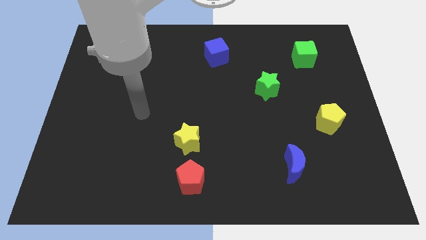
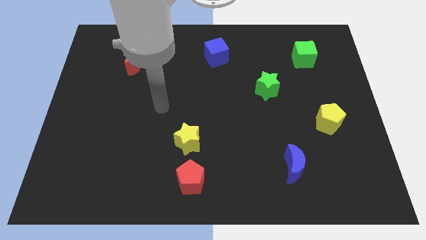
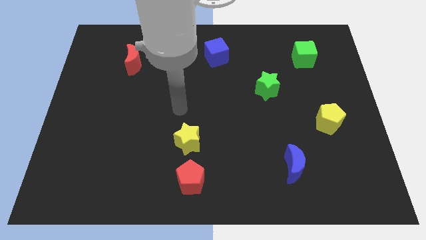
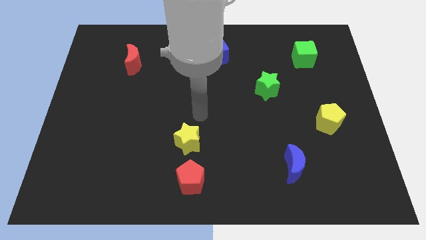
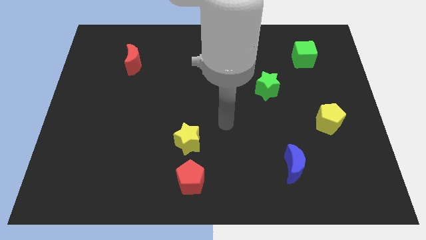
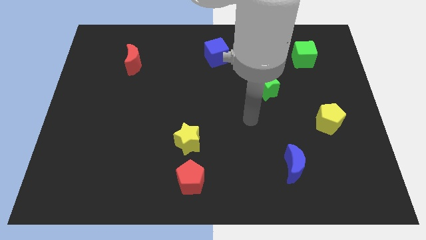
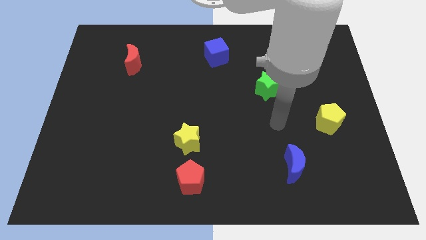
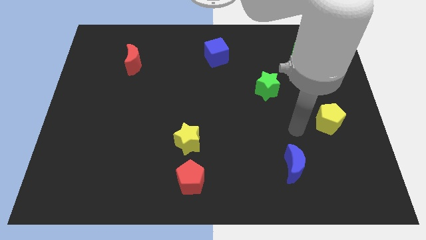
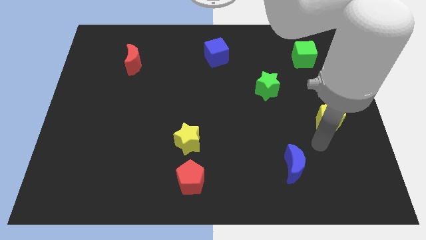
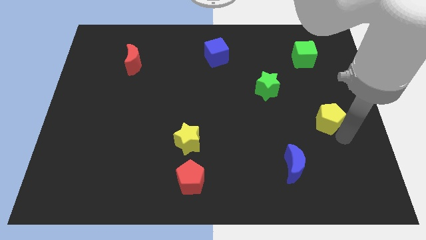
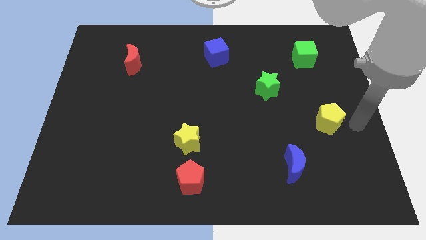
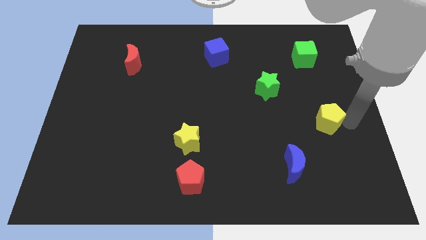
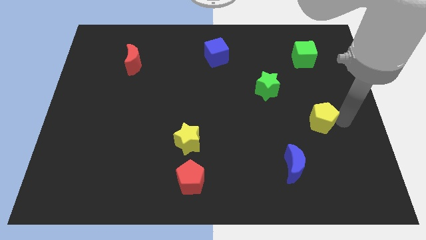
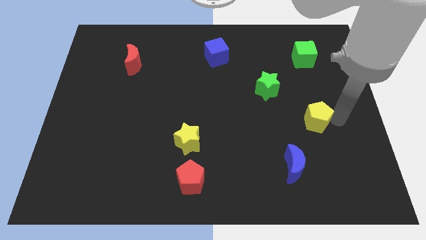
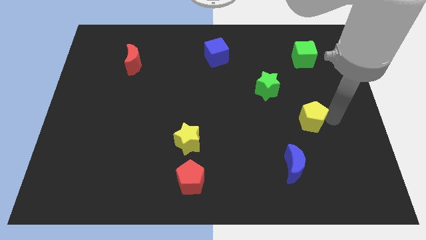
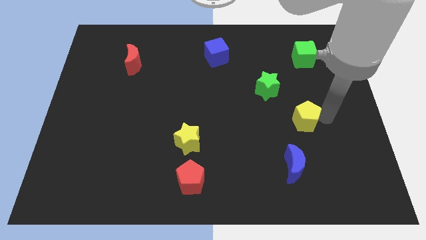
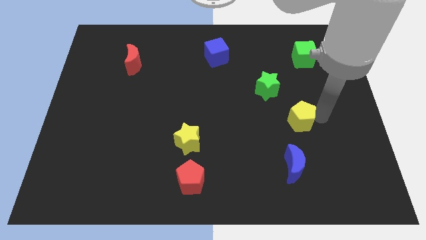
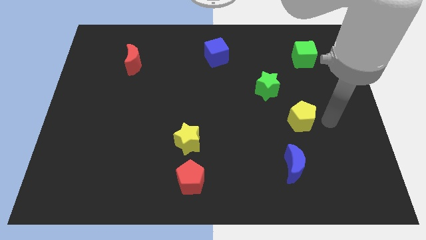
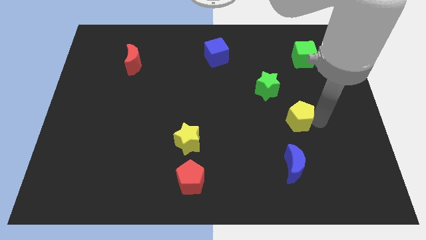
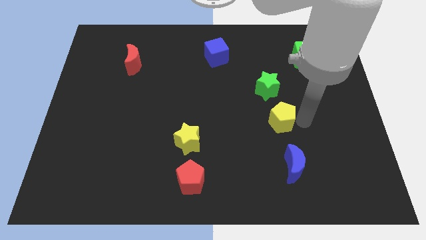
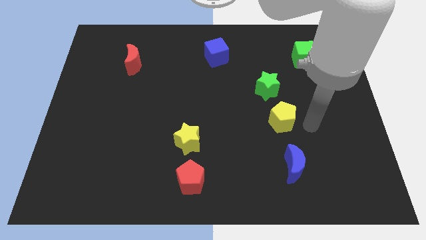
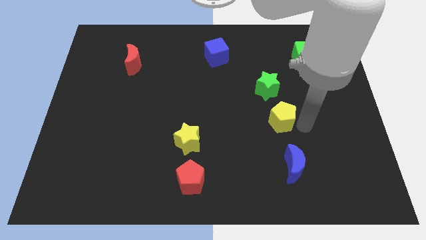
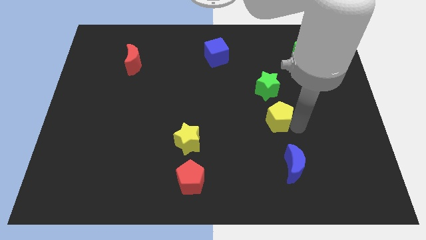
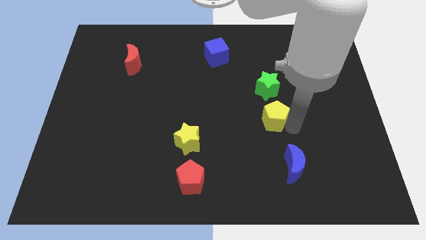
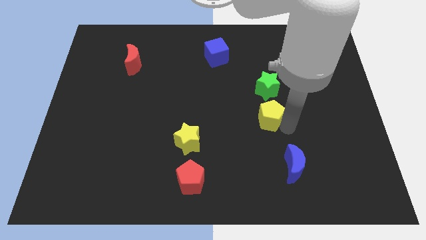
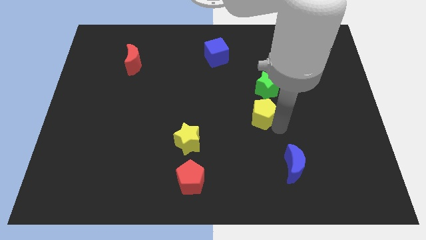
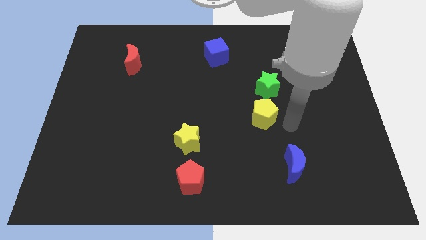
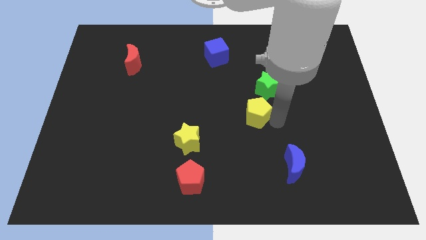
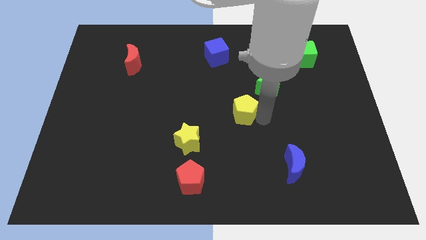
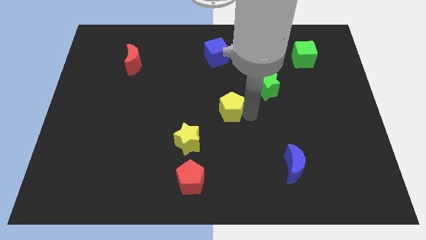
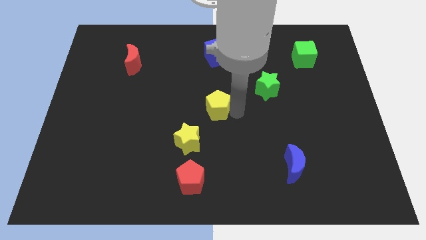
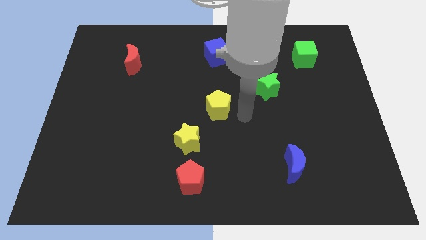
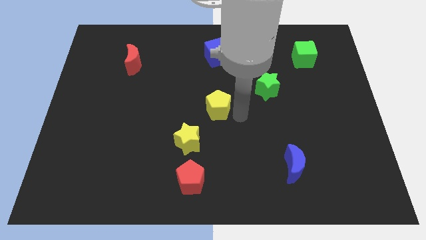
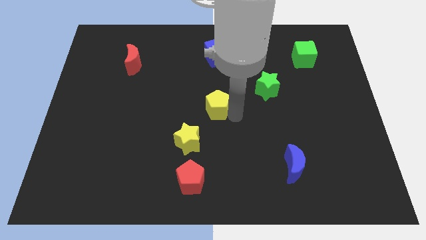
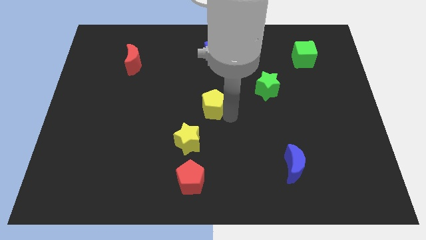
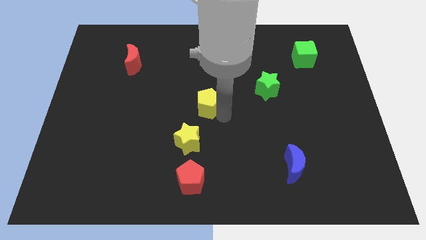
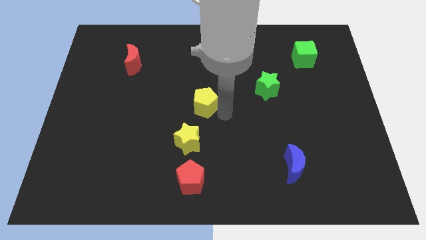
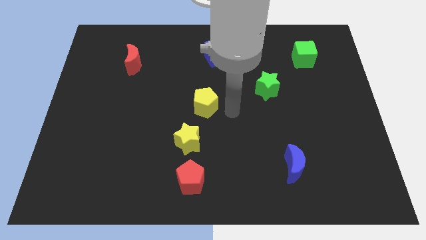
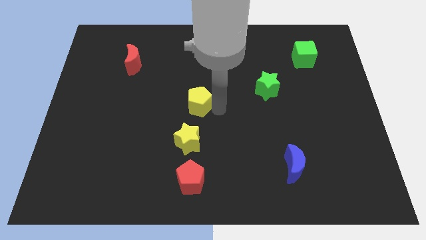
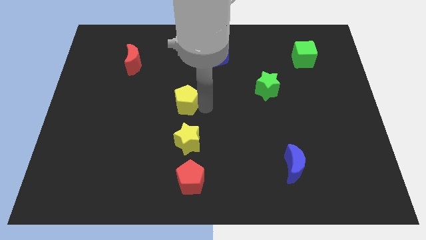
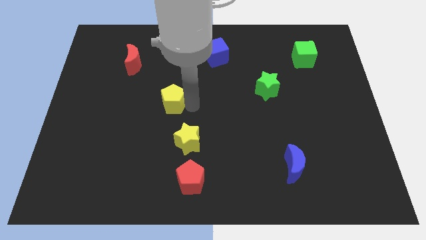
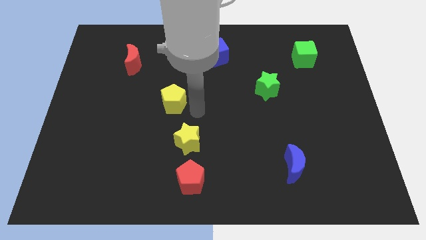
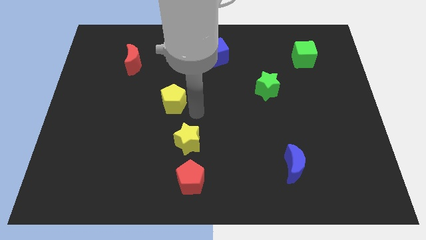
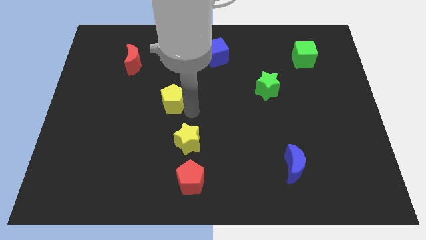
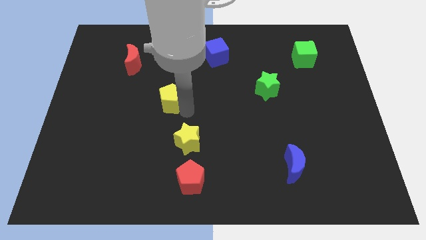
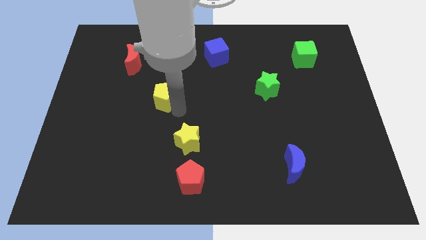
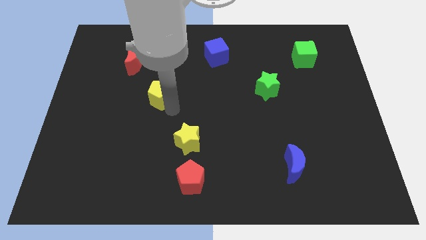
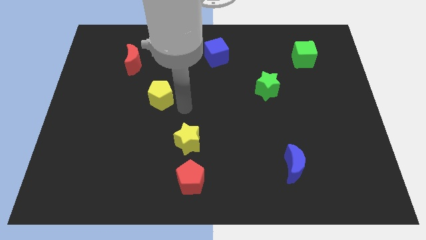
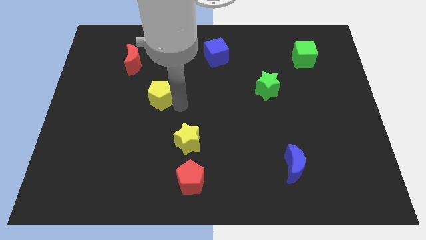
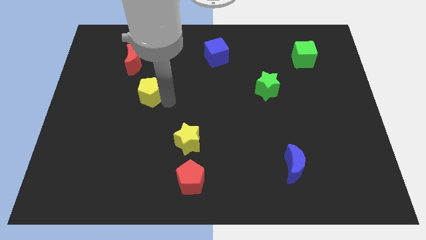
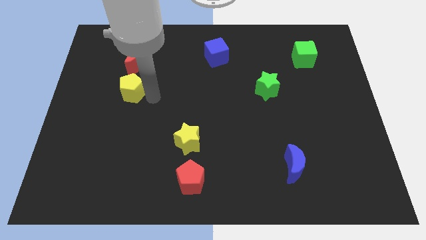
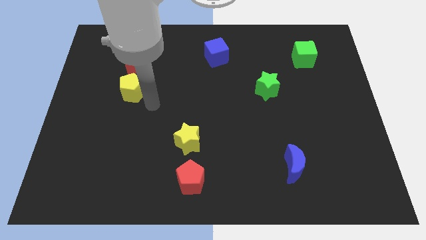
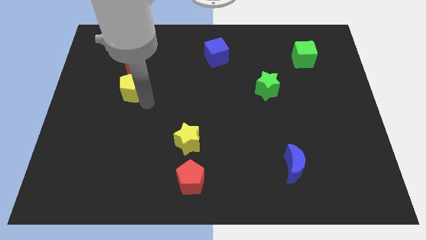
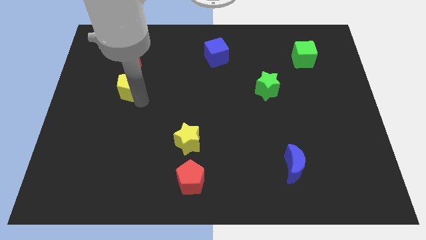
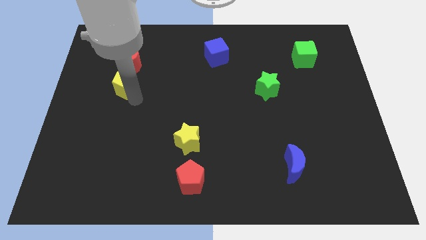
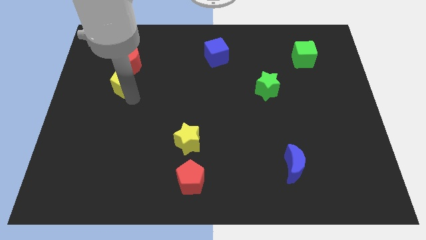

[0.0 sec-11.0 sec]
put the yellow pentagon diagonally down and to the left of the red moon

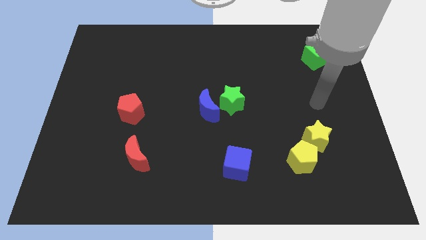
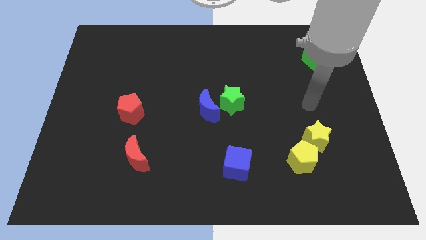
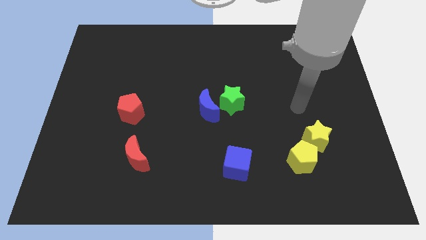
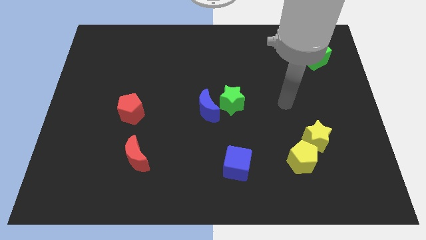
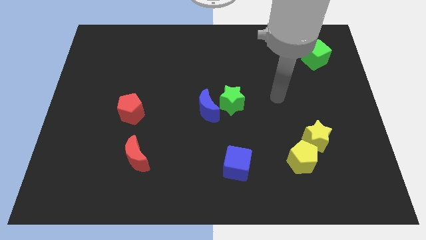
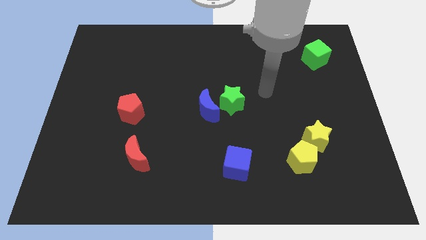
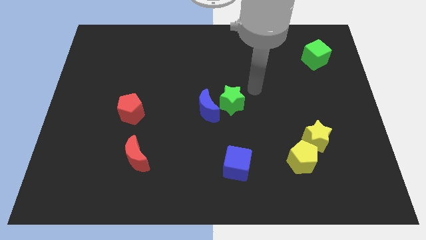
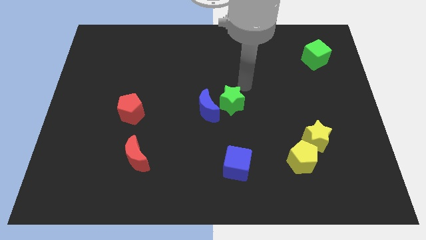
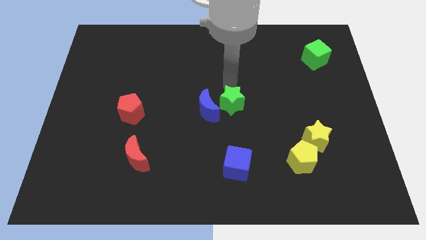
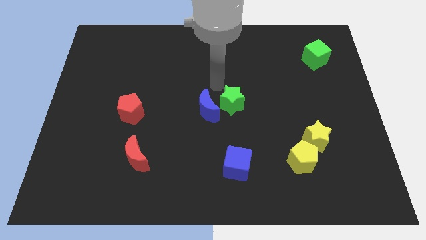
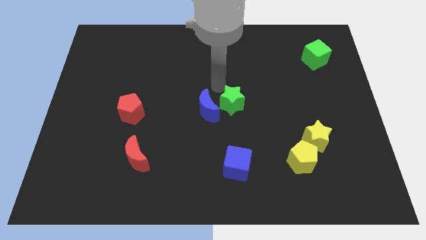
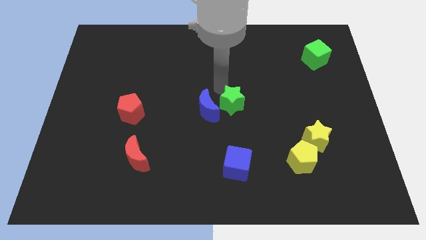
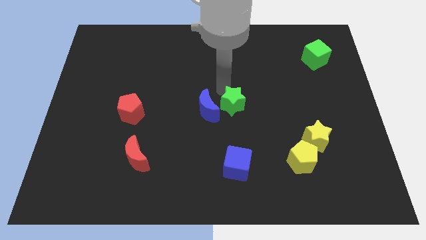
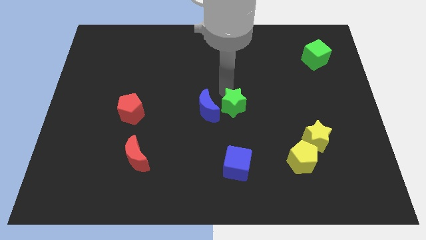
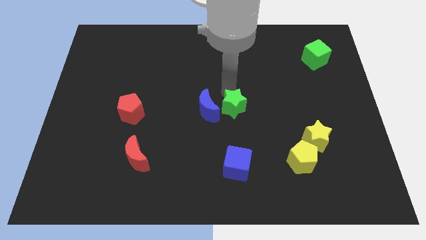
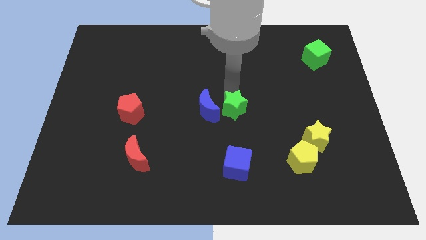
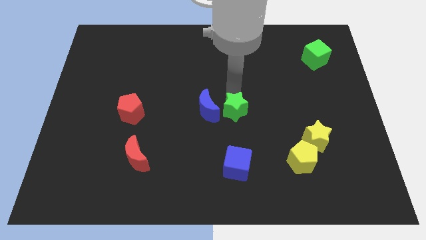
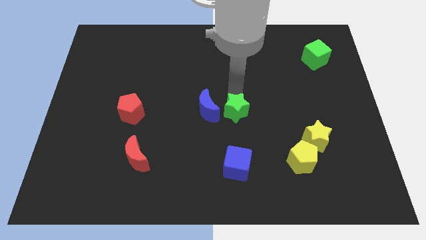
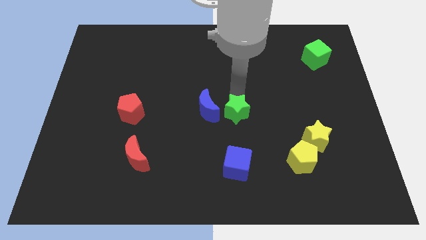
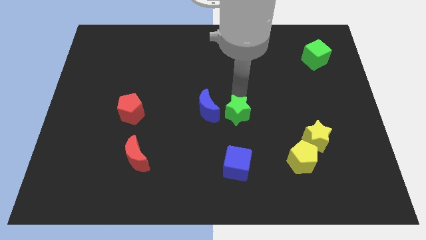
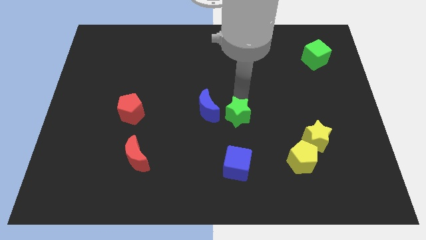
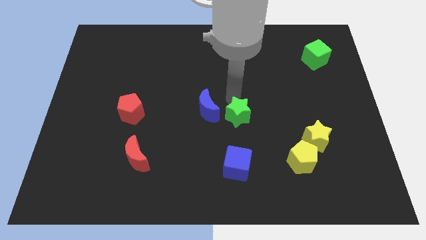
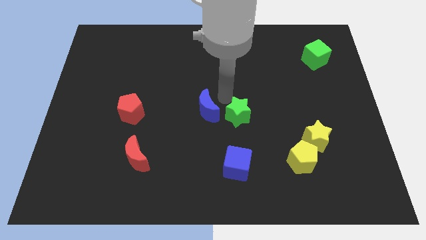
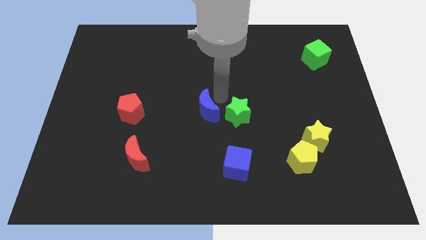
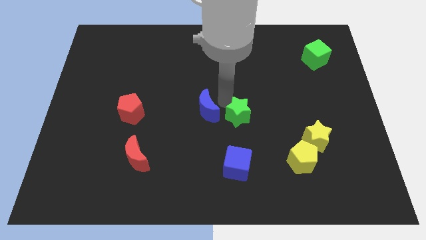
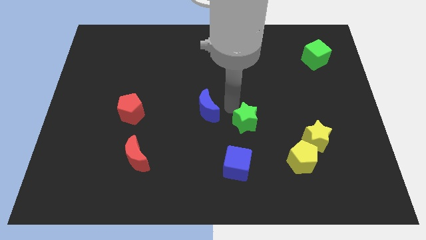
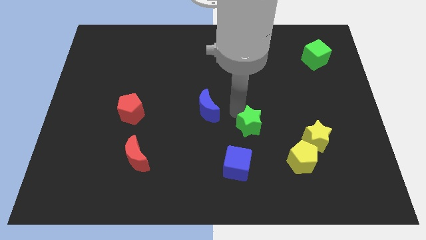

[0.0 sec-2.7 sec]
put the green star to the left side of the yellow star
